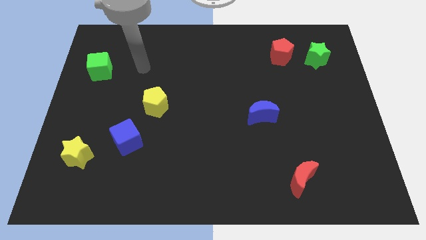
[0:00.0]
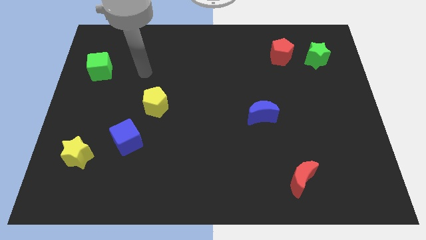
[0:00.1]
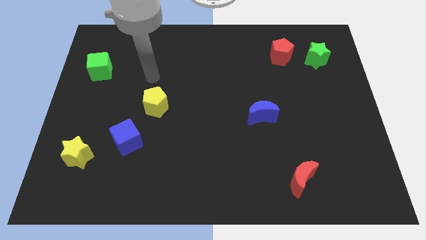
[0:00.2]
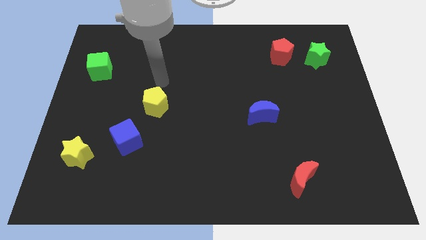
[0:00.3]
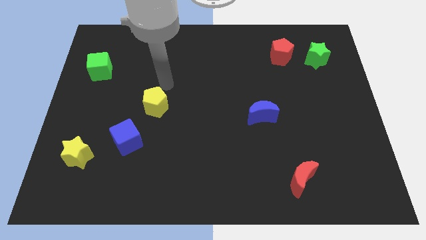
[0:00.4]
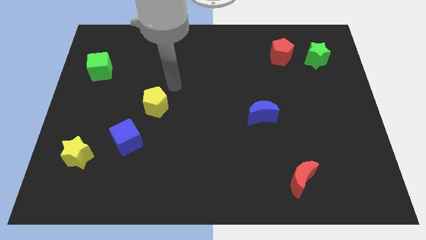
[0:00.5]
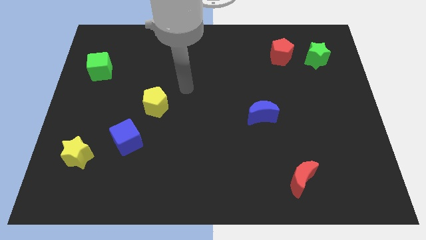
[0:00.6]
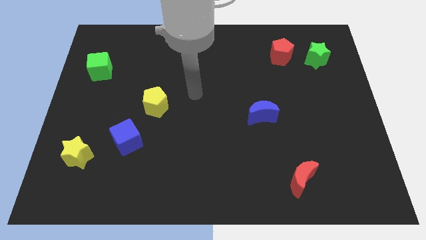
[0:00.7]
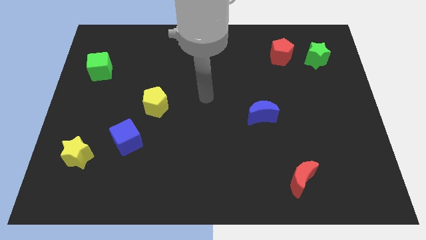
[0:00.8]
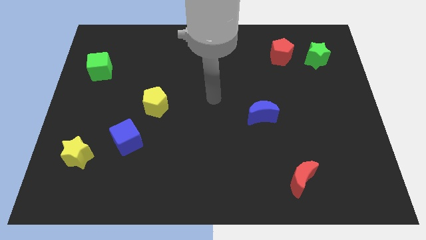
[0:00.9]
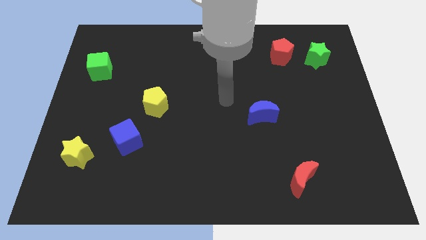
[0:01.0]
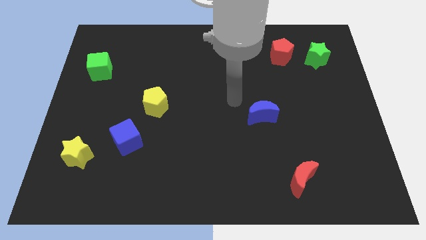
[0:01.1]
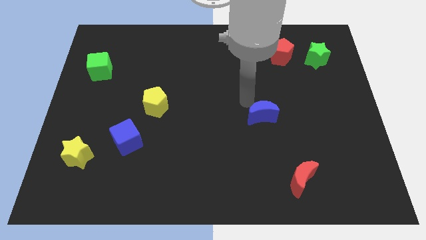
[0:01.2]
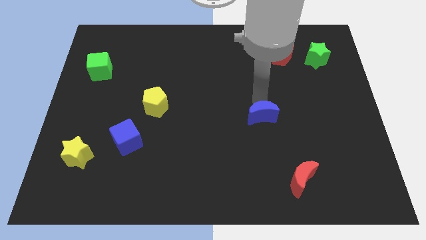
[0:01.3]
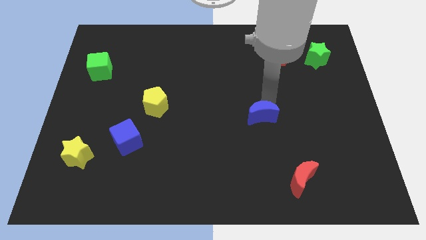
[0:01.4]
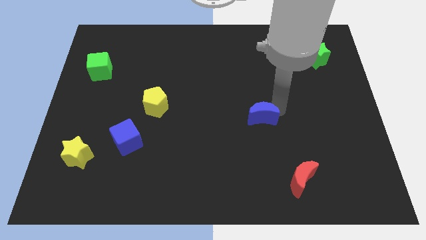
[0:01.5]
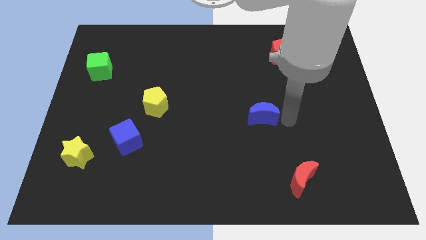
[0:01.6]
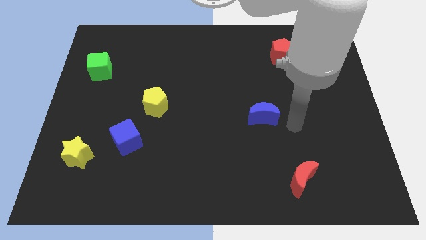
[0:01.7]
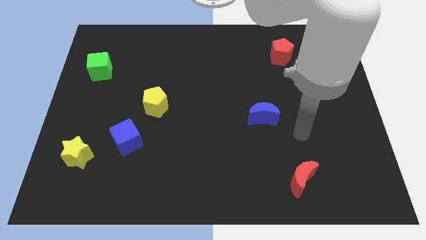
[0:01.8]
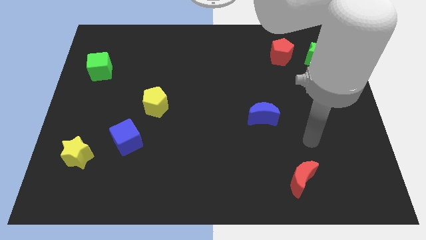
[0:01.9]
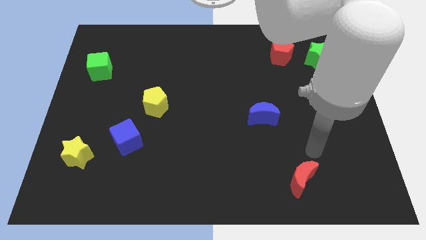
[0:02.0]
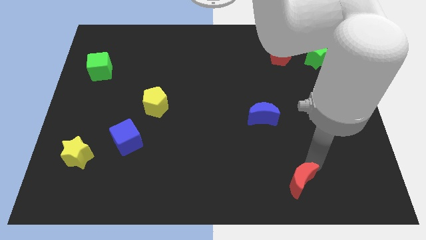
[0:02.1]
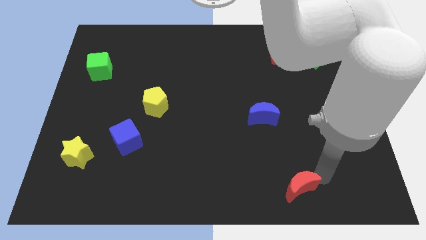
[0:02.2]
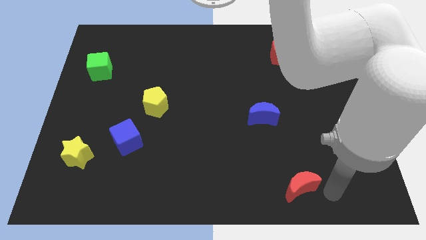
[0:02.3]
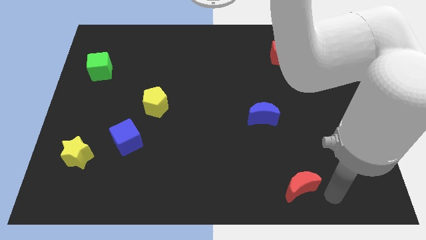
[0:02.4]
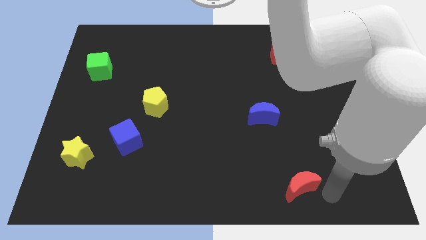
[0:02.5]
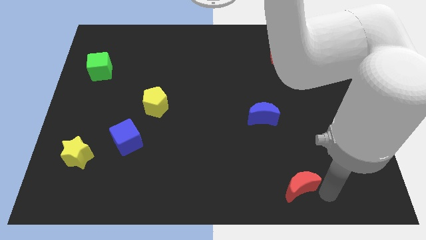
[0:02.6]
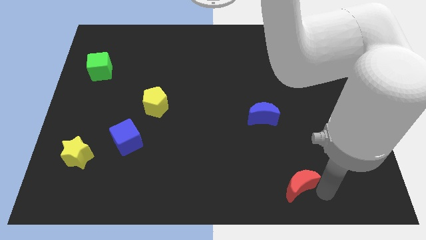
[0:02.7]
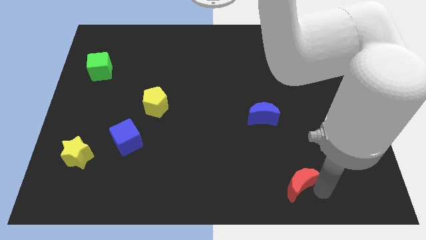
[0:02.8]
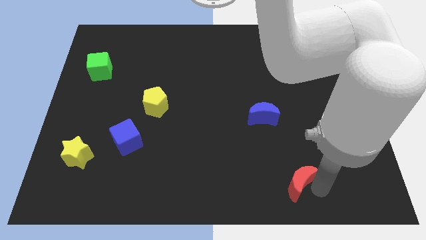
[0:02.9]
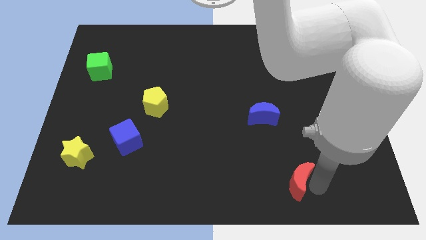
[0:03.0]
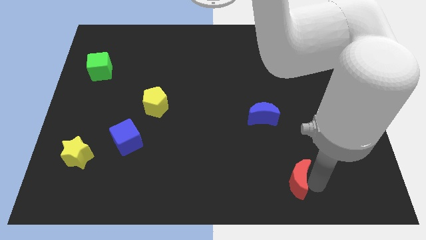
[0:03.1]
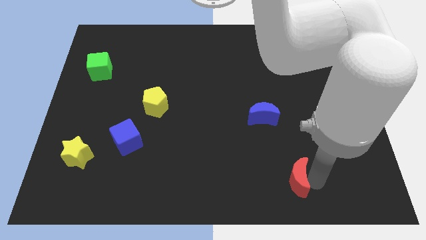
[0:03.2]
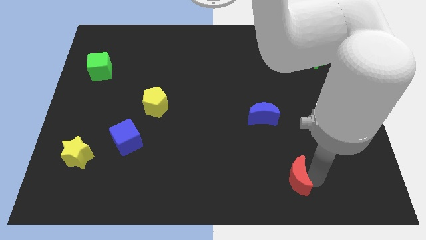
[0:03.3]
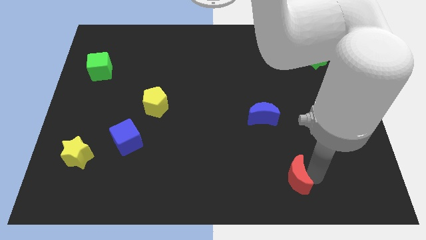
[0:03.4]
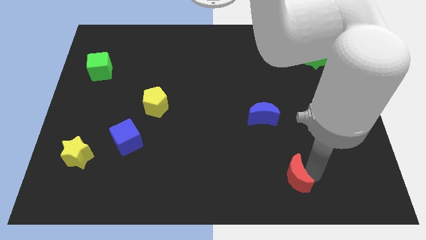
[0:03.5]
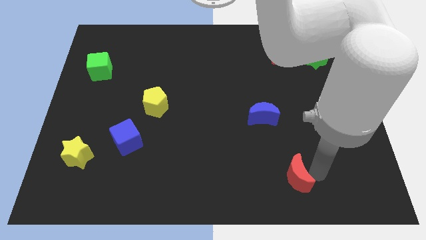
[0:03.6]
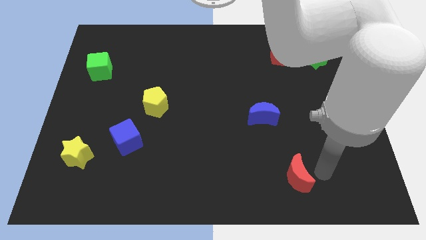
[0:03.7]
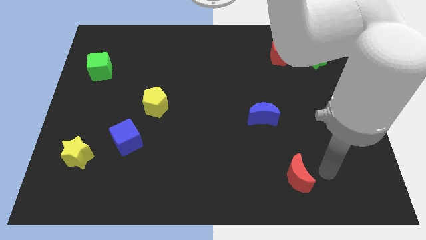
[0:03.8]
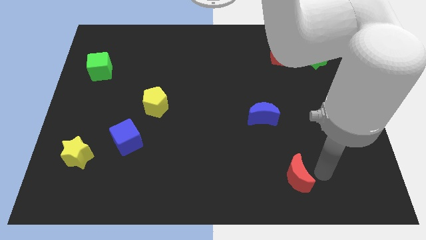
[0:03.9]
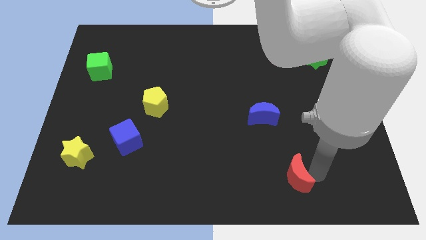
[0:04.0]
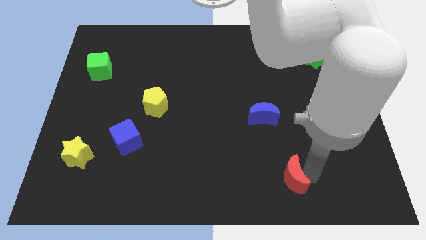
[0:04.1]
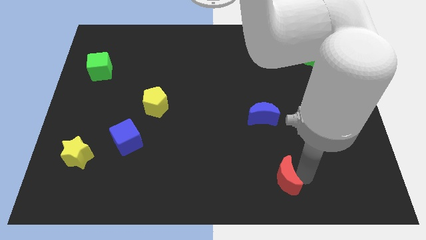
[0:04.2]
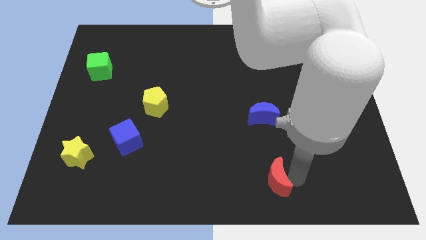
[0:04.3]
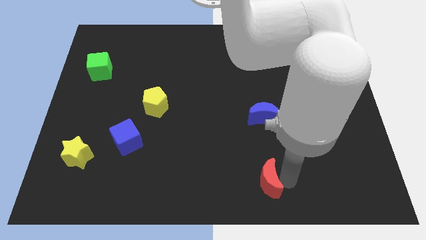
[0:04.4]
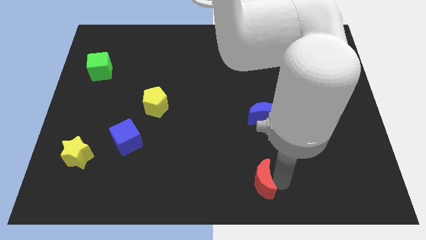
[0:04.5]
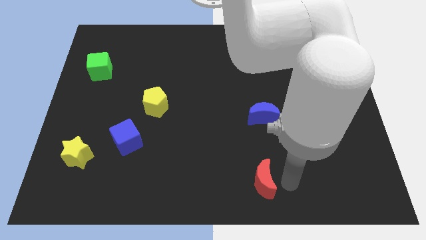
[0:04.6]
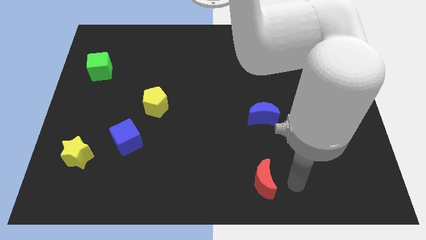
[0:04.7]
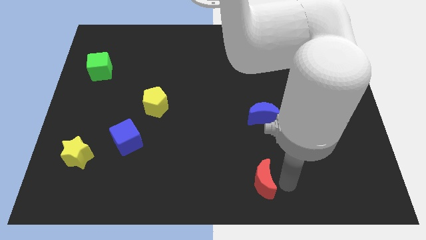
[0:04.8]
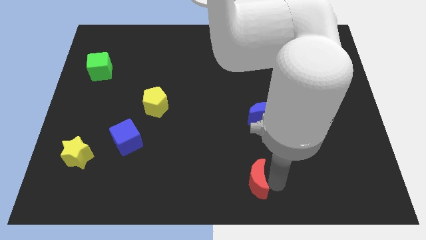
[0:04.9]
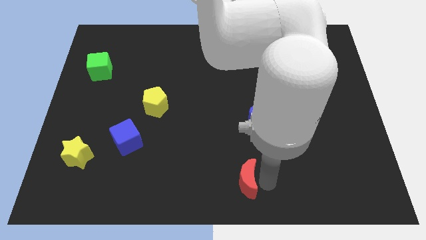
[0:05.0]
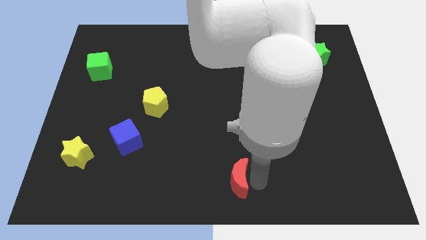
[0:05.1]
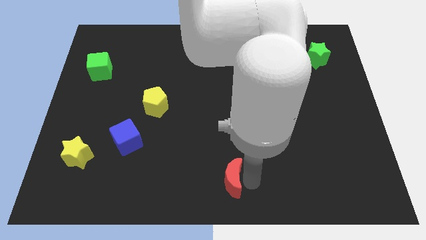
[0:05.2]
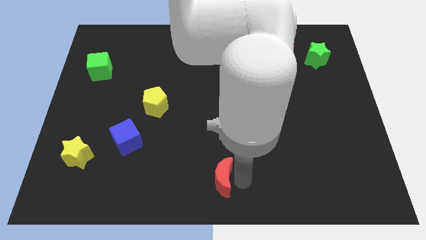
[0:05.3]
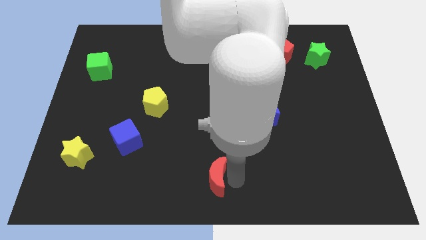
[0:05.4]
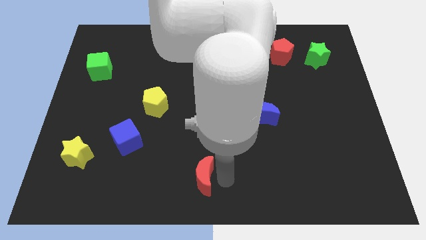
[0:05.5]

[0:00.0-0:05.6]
push the red moon to the left

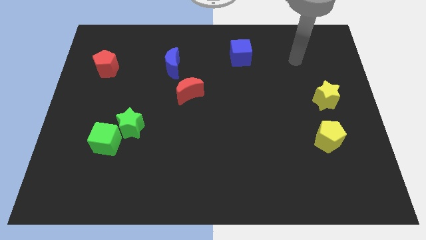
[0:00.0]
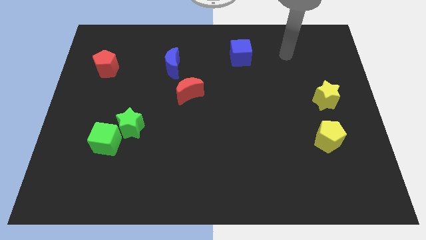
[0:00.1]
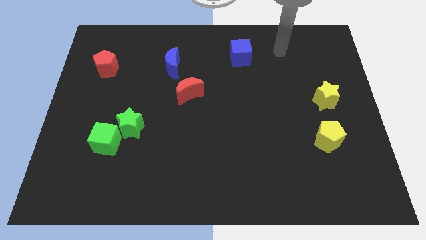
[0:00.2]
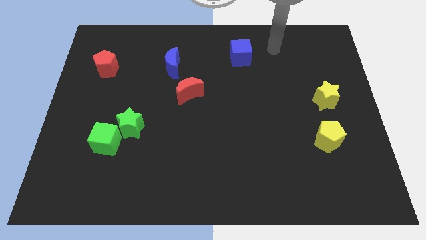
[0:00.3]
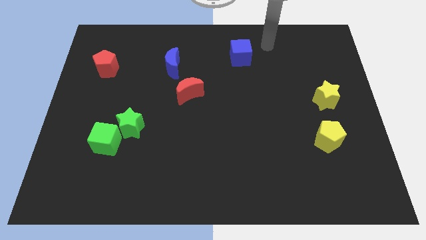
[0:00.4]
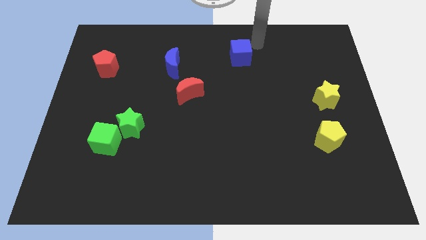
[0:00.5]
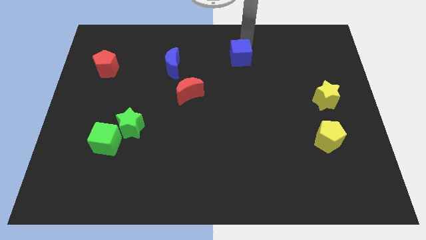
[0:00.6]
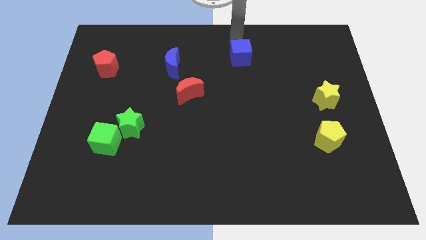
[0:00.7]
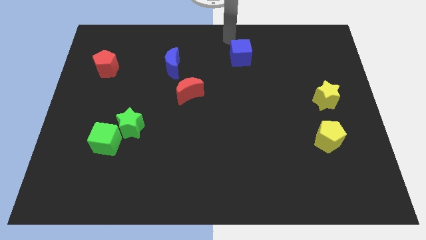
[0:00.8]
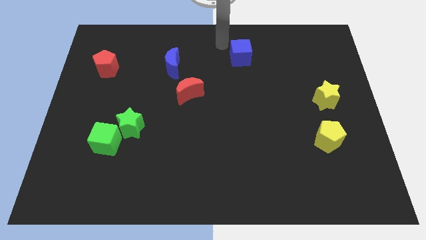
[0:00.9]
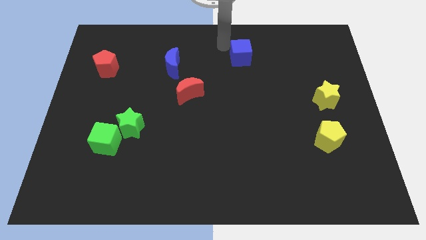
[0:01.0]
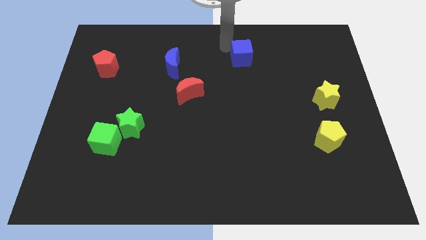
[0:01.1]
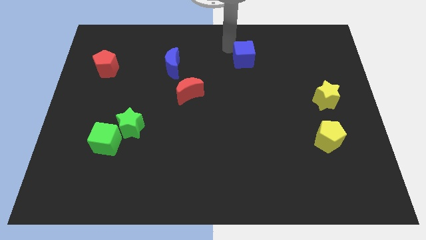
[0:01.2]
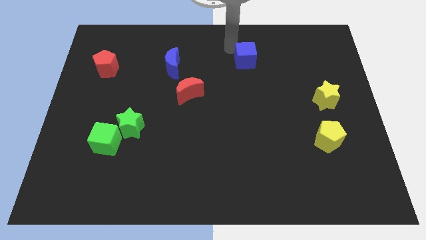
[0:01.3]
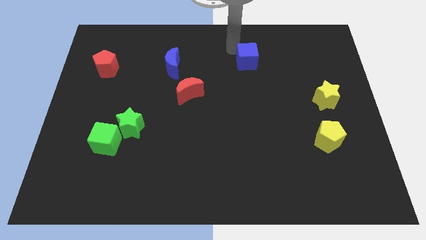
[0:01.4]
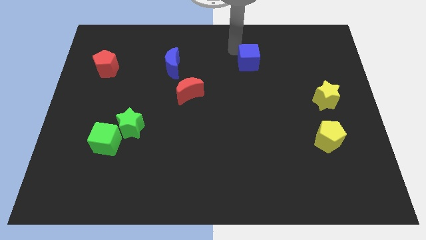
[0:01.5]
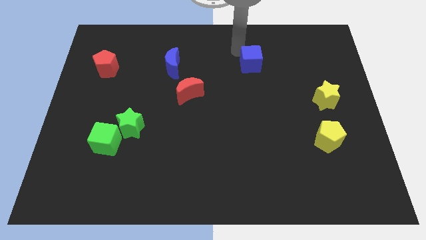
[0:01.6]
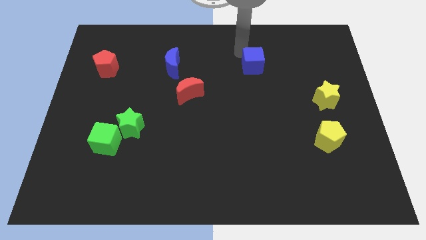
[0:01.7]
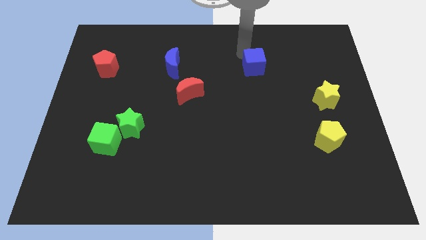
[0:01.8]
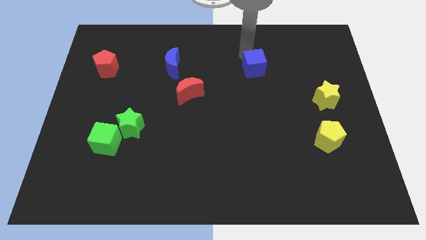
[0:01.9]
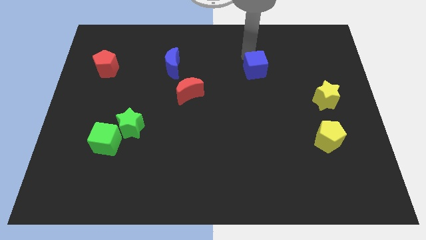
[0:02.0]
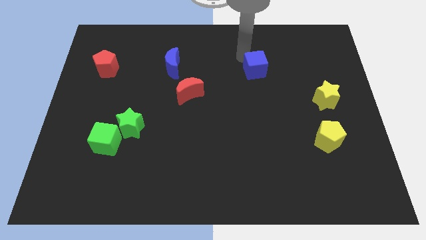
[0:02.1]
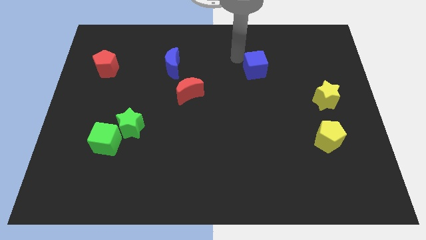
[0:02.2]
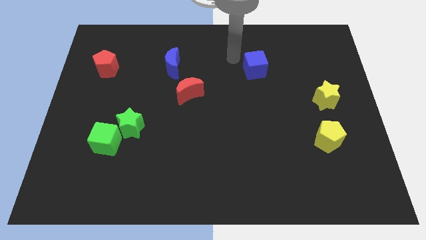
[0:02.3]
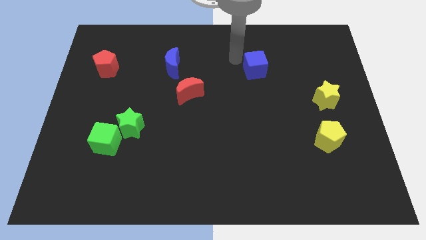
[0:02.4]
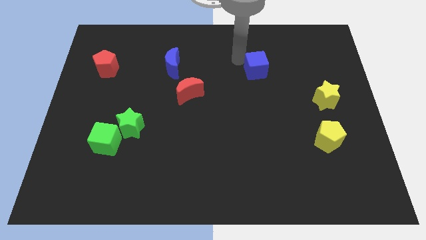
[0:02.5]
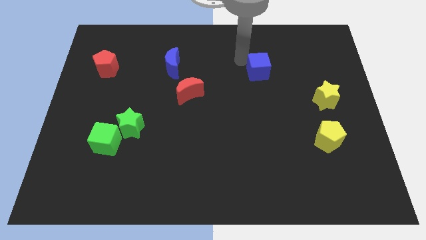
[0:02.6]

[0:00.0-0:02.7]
slightly move the blue cube down and right
